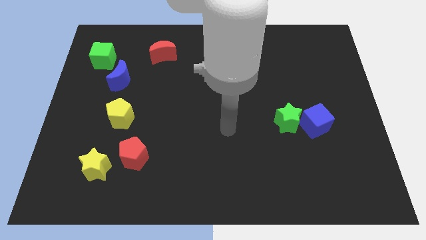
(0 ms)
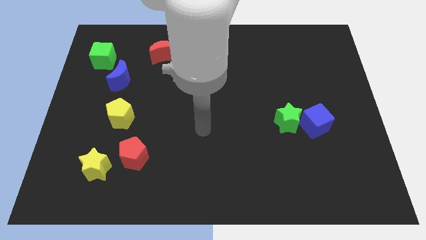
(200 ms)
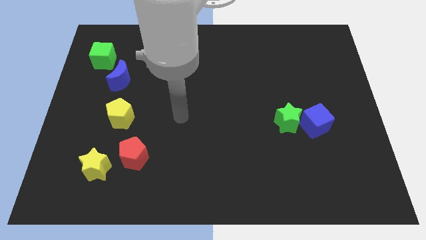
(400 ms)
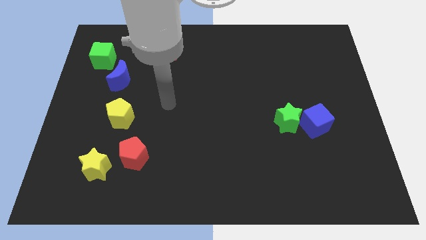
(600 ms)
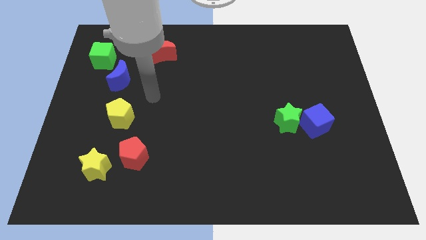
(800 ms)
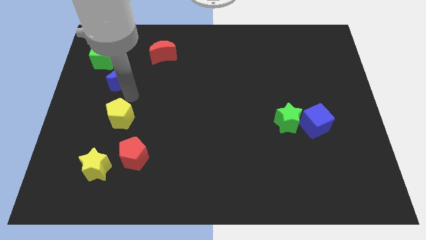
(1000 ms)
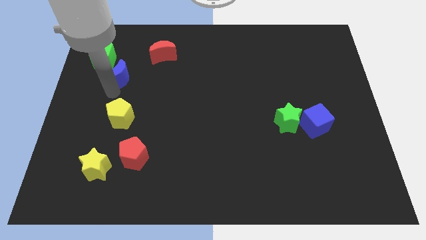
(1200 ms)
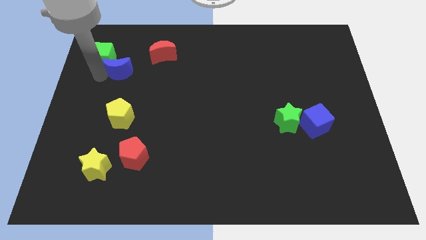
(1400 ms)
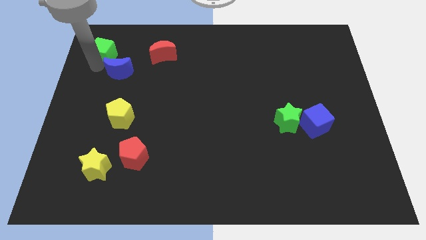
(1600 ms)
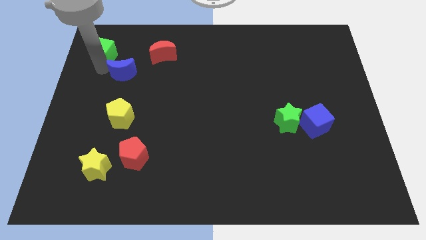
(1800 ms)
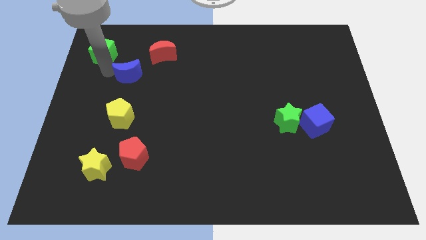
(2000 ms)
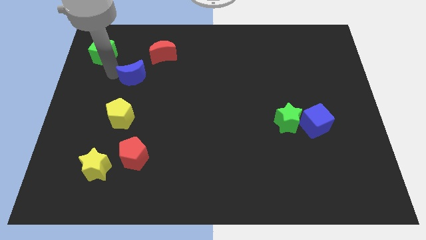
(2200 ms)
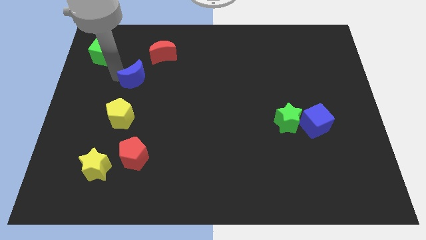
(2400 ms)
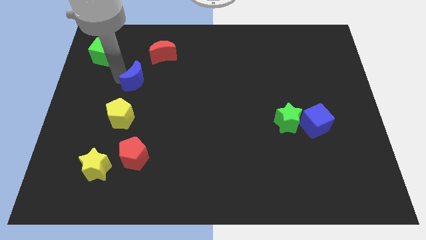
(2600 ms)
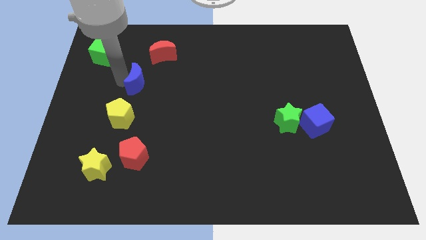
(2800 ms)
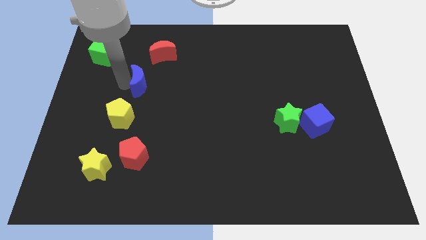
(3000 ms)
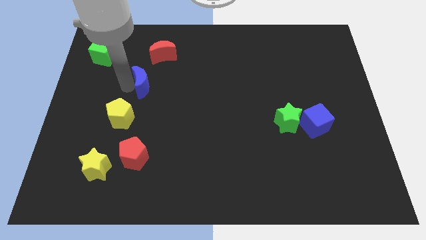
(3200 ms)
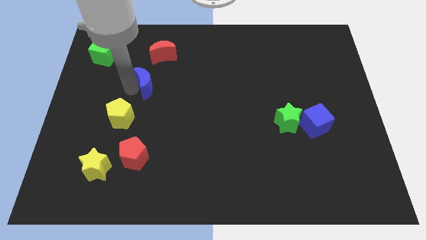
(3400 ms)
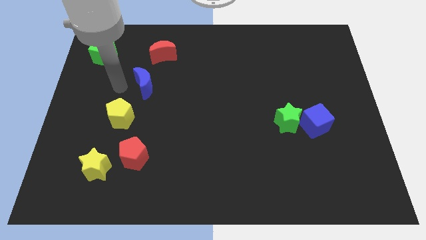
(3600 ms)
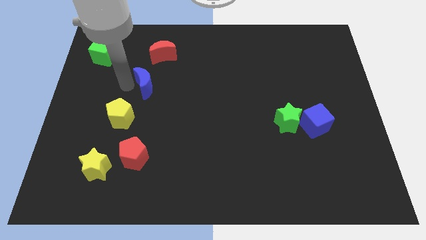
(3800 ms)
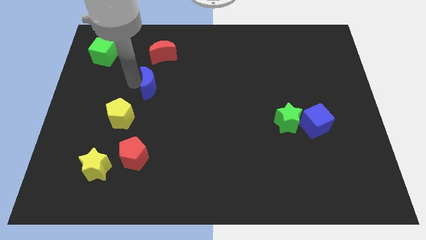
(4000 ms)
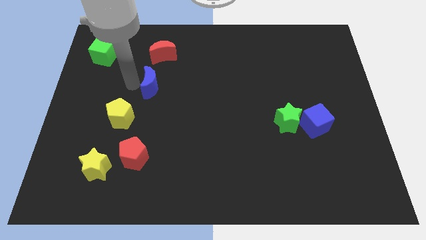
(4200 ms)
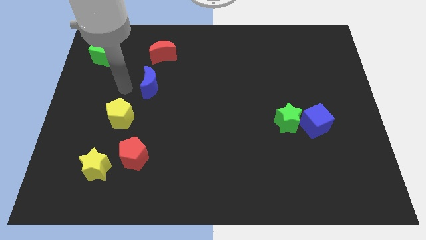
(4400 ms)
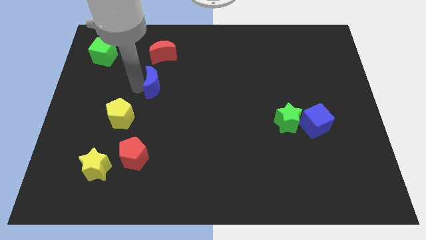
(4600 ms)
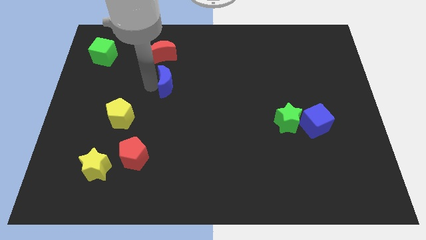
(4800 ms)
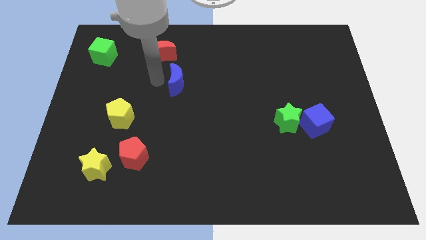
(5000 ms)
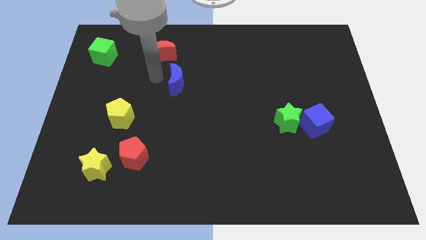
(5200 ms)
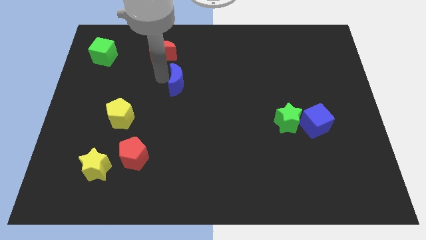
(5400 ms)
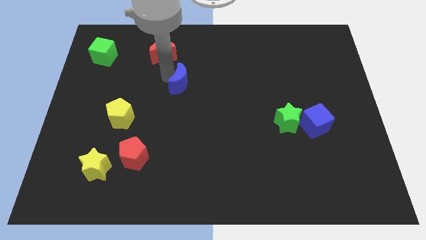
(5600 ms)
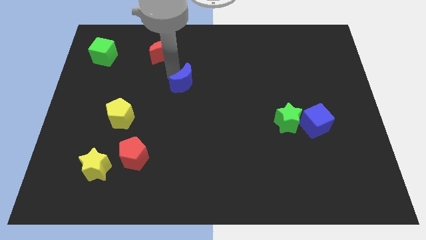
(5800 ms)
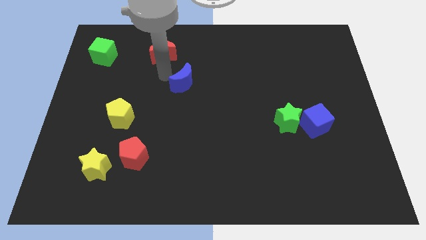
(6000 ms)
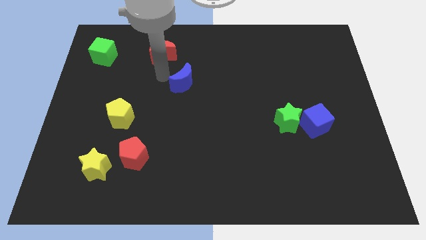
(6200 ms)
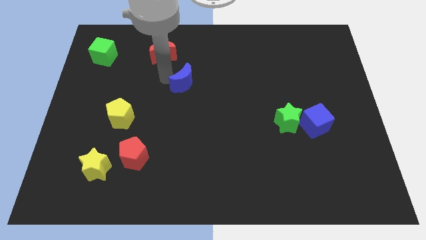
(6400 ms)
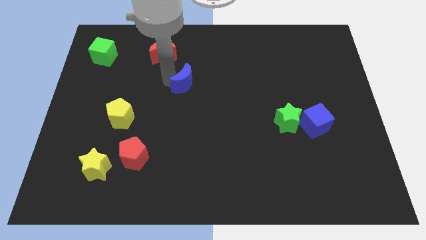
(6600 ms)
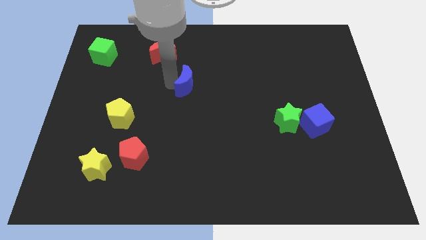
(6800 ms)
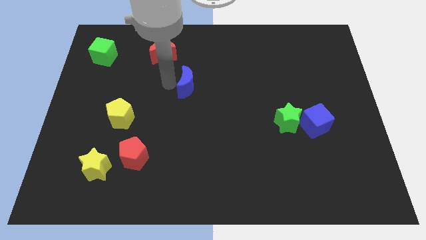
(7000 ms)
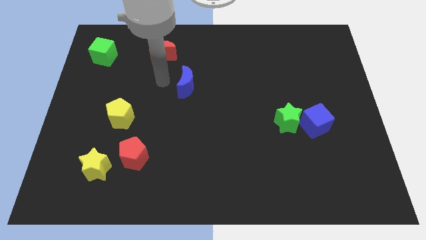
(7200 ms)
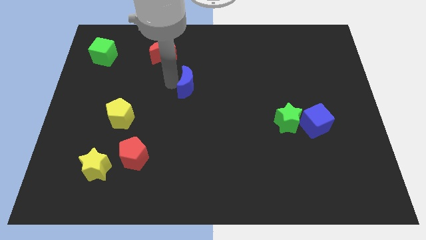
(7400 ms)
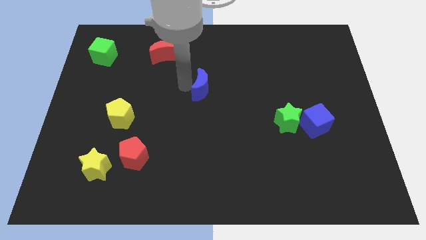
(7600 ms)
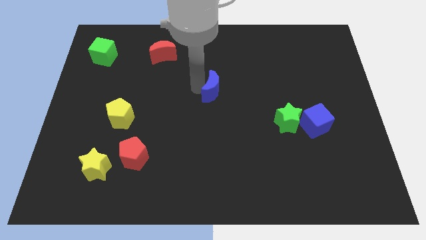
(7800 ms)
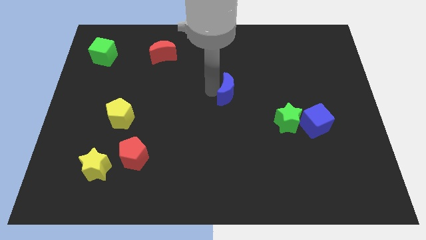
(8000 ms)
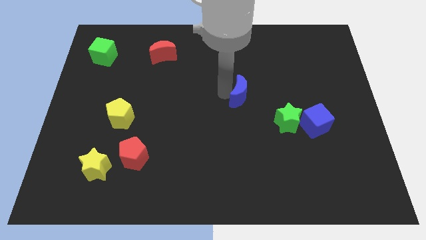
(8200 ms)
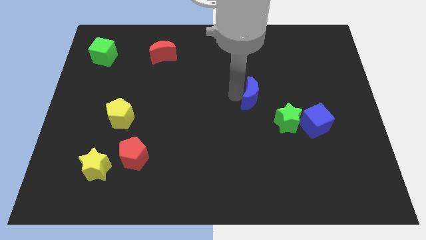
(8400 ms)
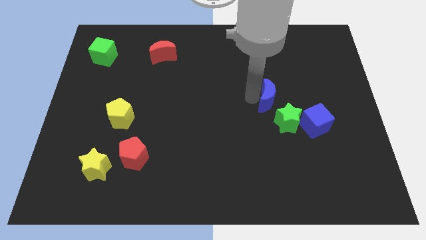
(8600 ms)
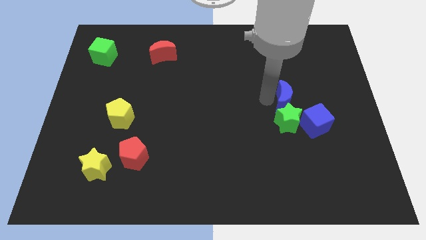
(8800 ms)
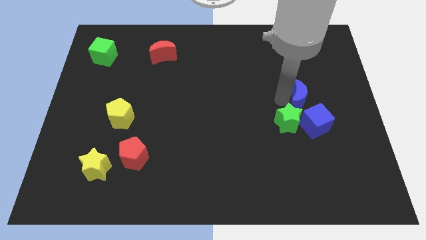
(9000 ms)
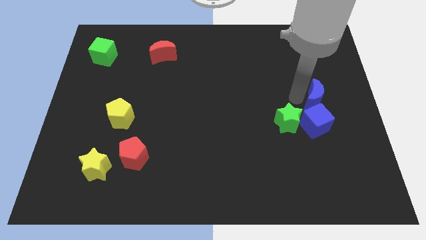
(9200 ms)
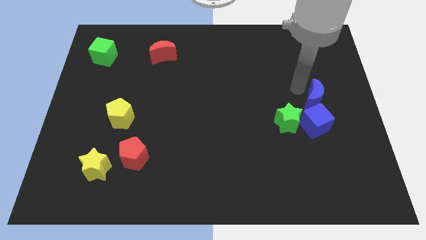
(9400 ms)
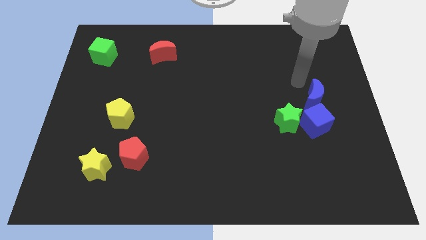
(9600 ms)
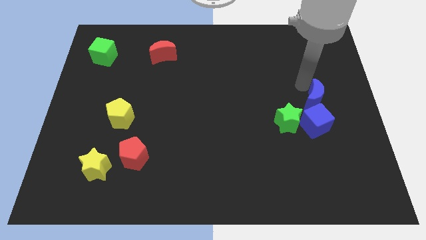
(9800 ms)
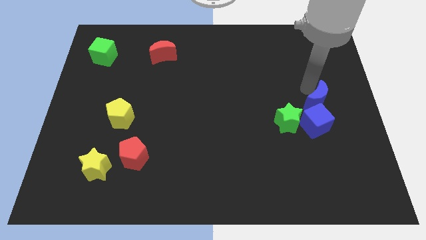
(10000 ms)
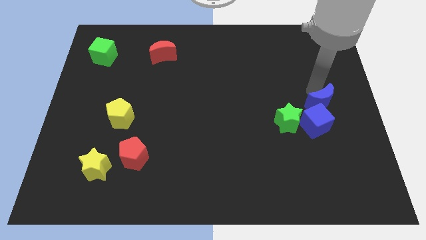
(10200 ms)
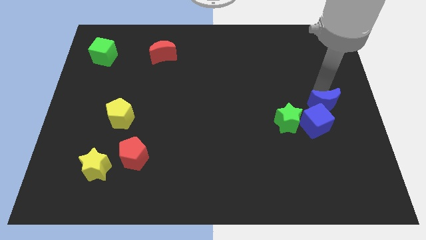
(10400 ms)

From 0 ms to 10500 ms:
slide the blue moon to the right of the green star

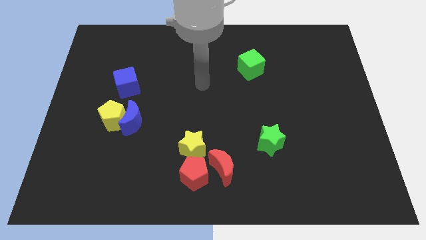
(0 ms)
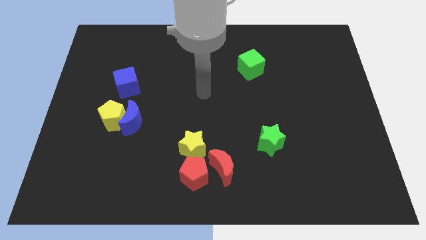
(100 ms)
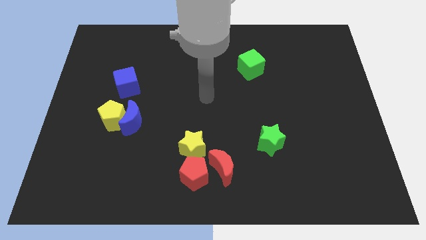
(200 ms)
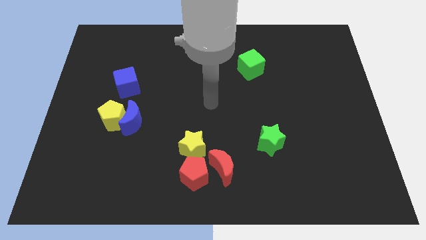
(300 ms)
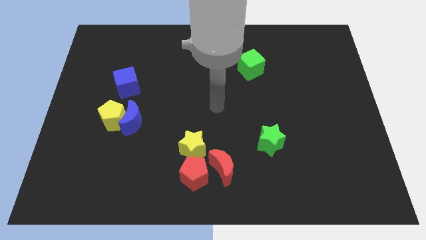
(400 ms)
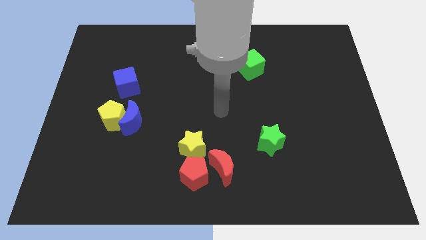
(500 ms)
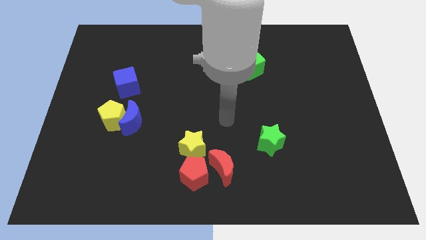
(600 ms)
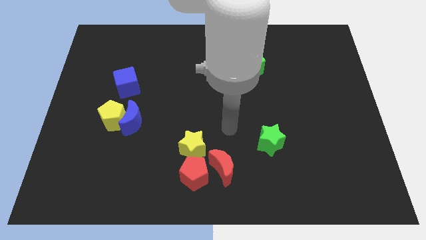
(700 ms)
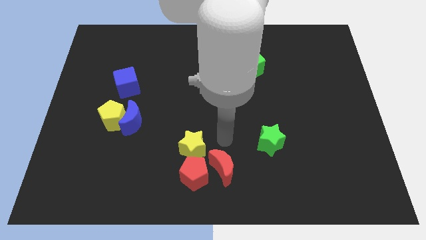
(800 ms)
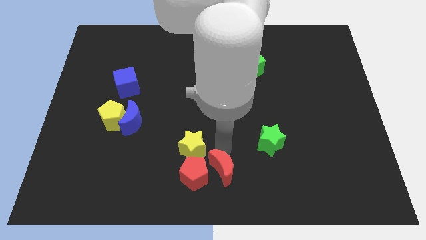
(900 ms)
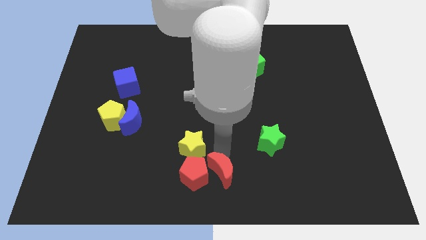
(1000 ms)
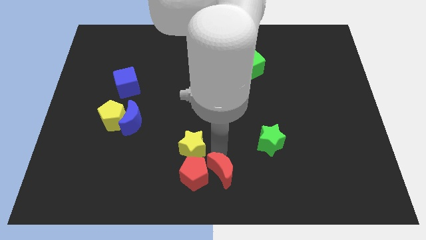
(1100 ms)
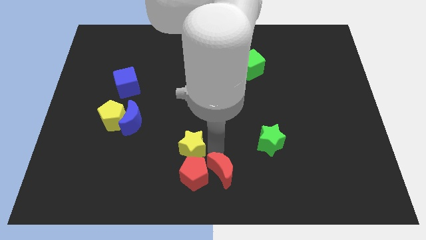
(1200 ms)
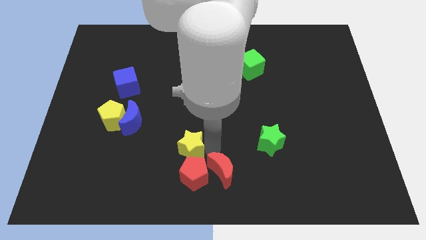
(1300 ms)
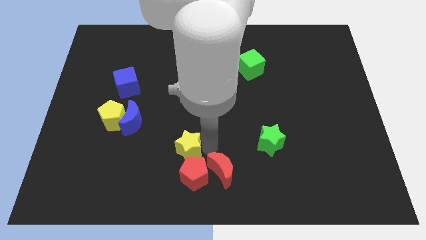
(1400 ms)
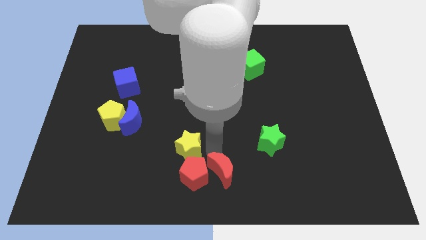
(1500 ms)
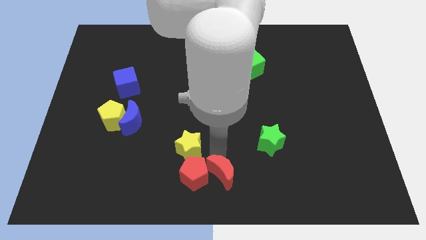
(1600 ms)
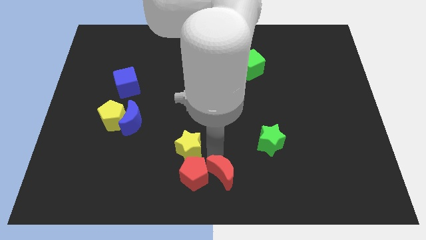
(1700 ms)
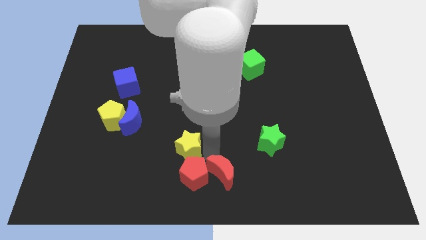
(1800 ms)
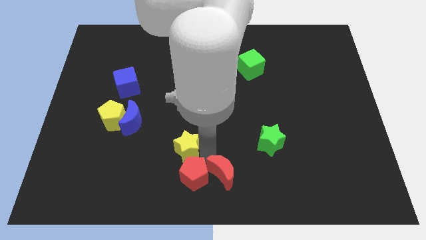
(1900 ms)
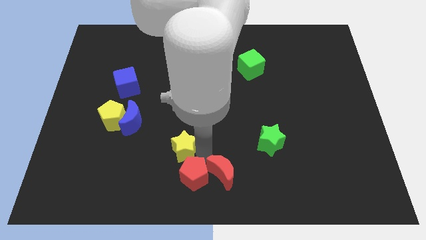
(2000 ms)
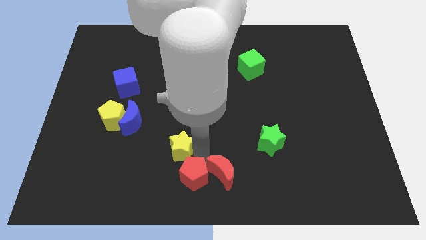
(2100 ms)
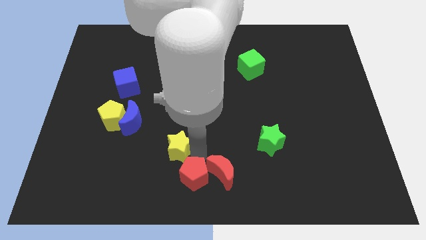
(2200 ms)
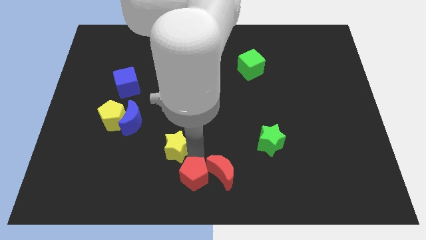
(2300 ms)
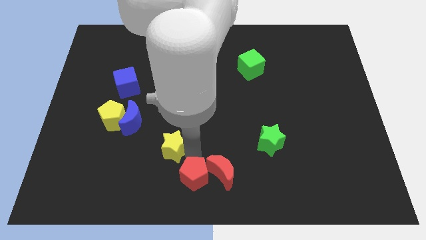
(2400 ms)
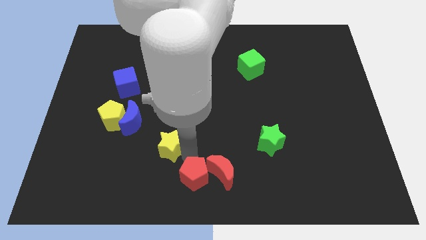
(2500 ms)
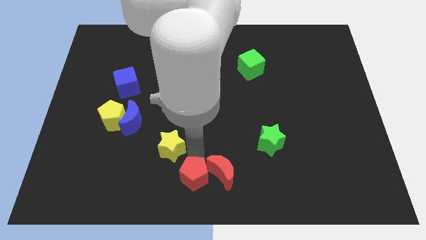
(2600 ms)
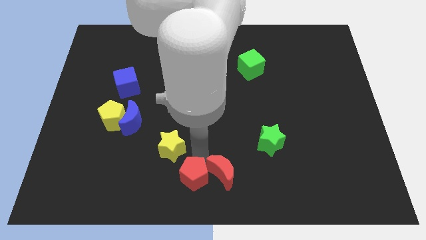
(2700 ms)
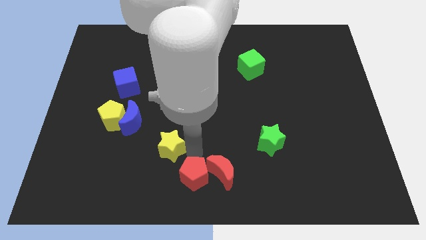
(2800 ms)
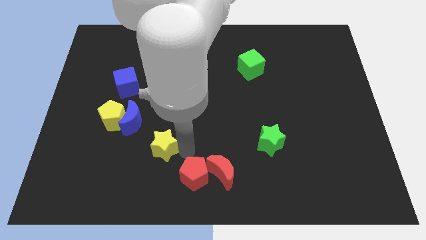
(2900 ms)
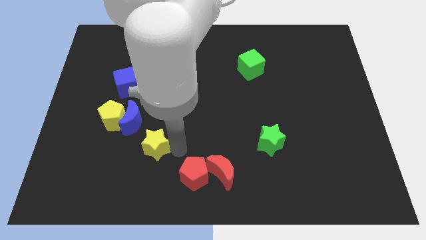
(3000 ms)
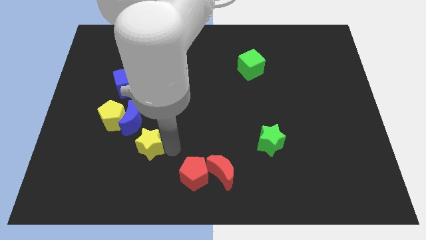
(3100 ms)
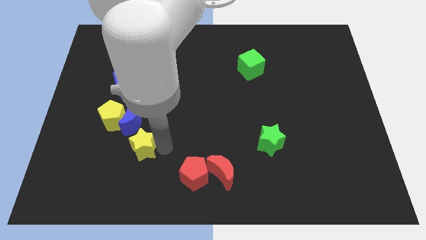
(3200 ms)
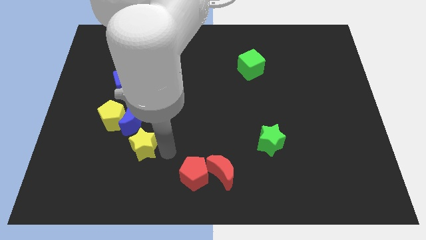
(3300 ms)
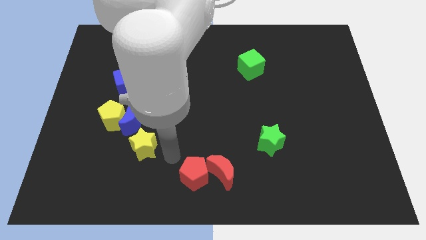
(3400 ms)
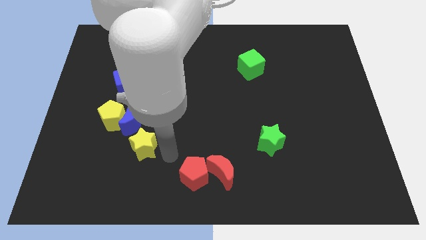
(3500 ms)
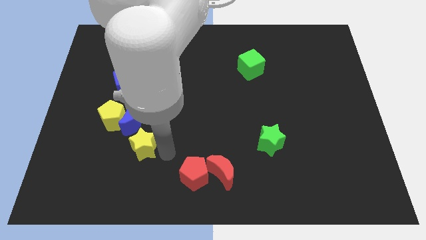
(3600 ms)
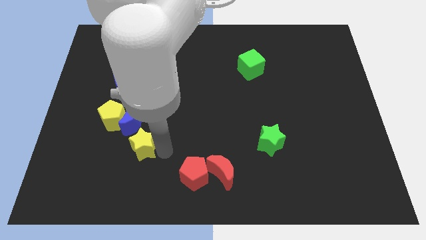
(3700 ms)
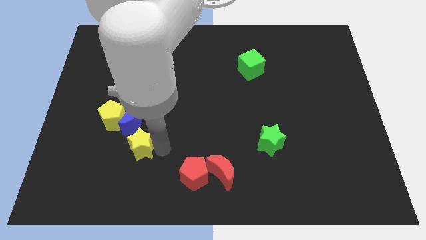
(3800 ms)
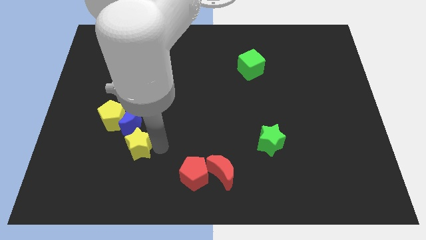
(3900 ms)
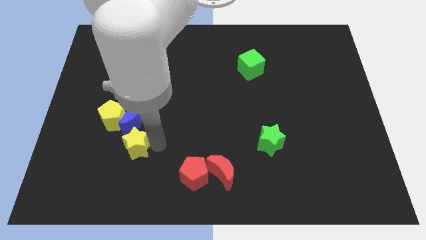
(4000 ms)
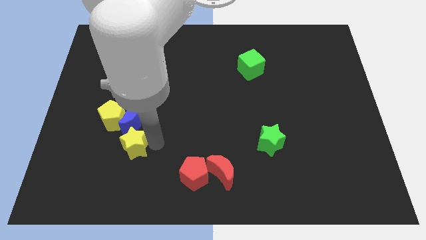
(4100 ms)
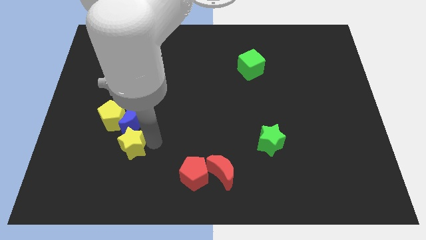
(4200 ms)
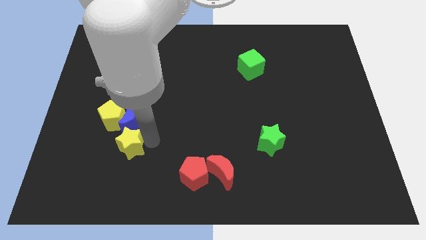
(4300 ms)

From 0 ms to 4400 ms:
move the yellow star diagonally down and to the left of the blue moon
